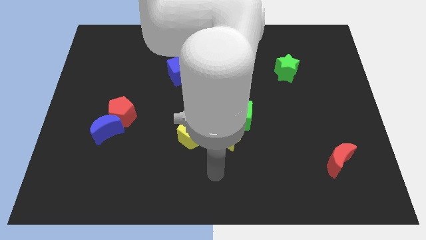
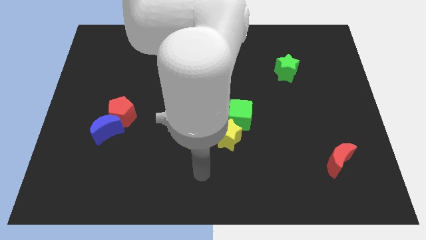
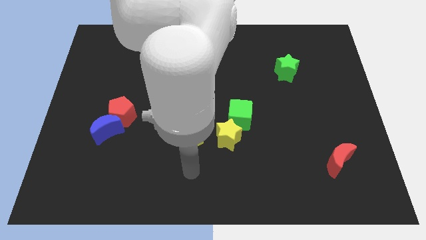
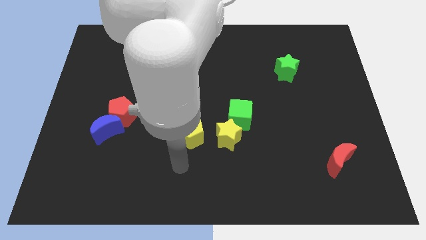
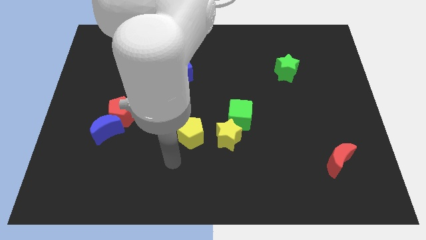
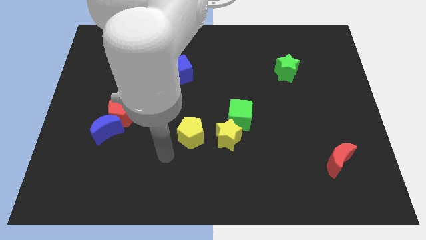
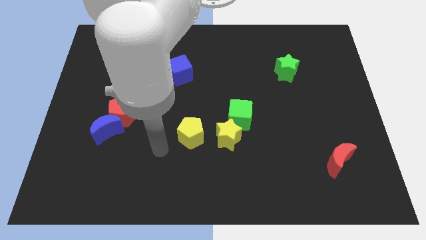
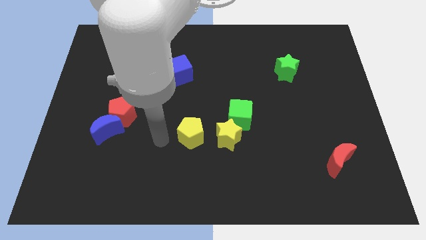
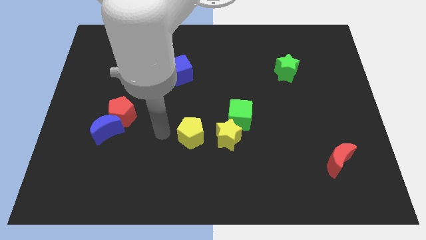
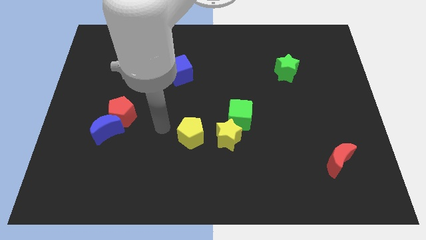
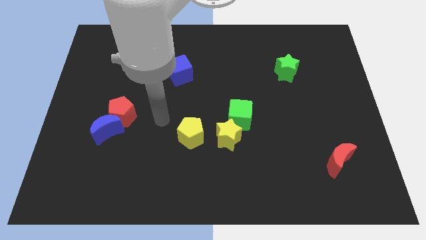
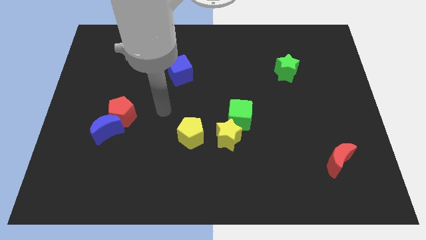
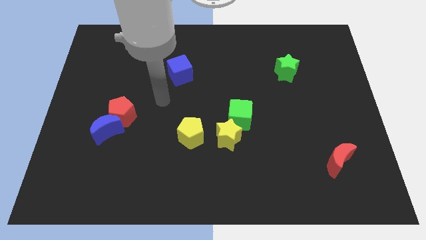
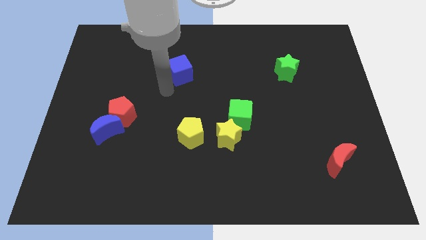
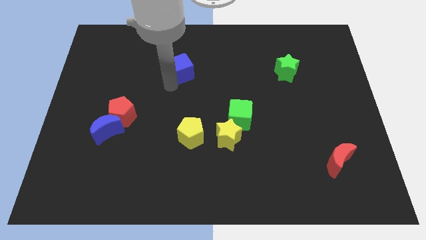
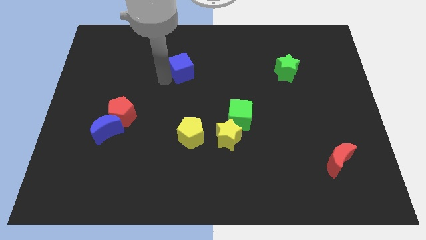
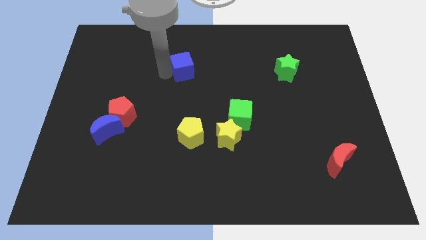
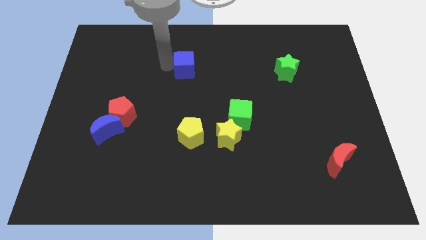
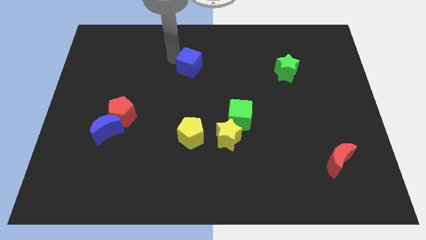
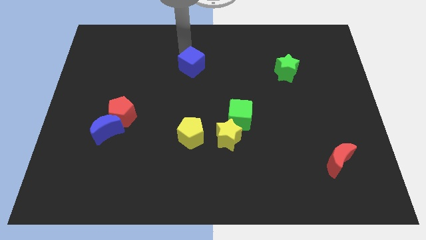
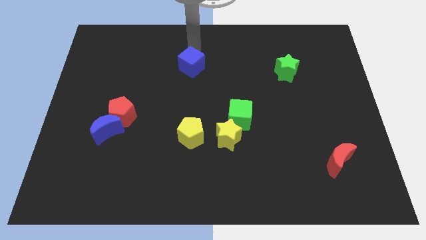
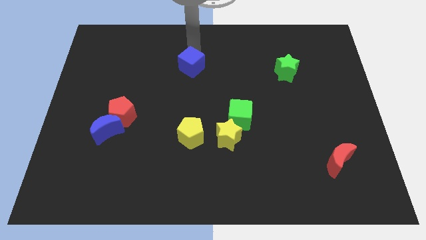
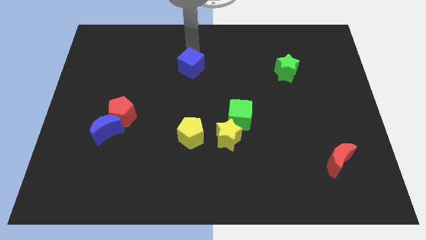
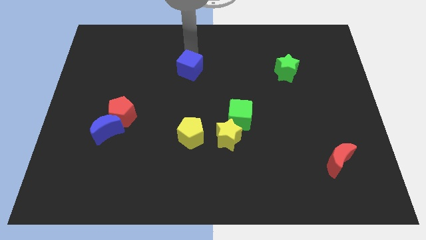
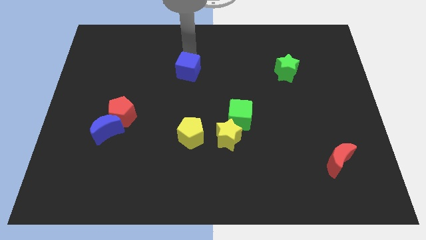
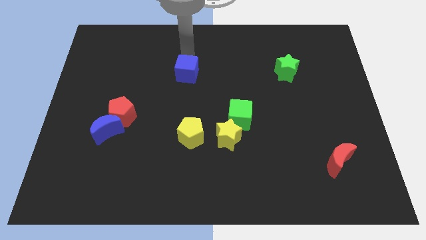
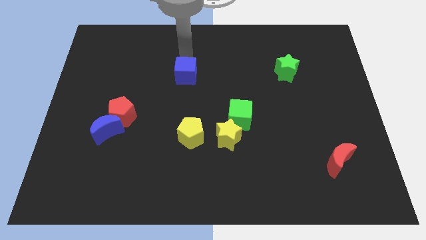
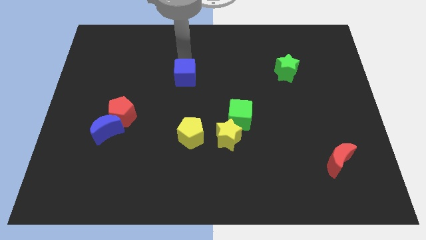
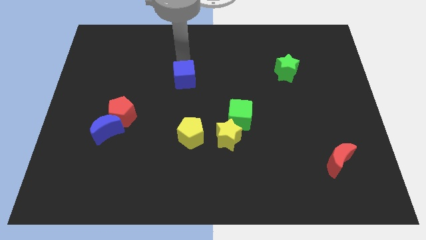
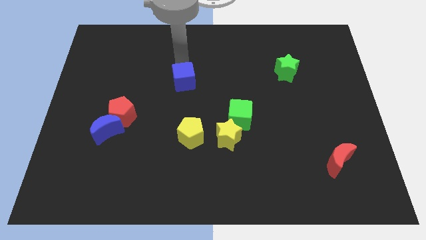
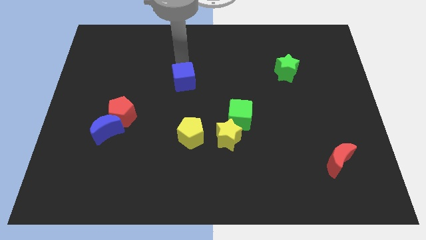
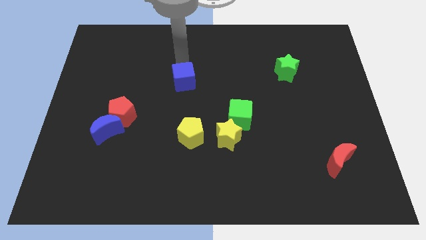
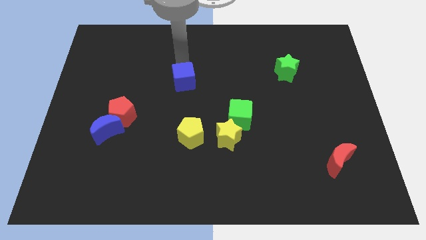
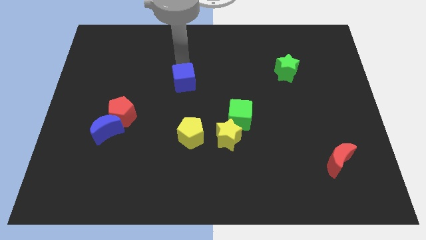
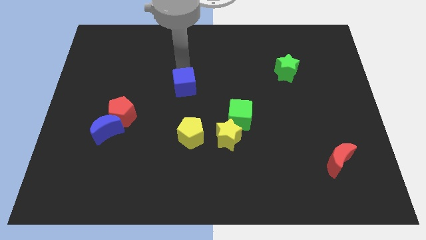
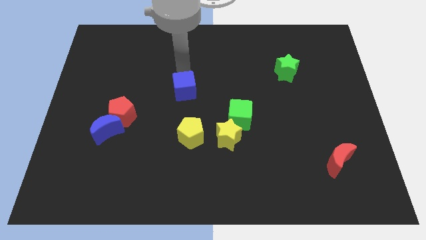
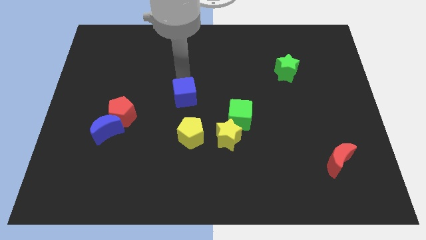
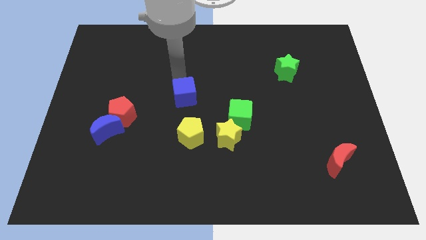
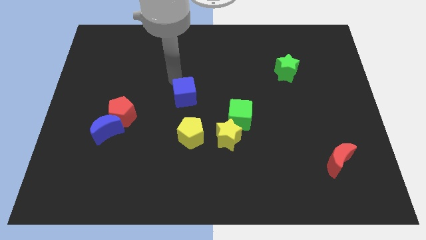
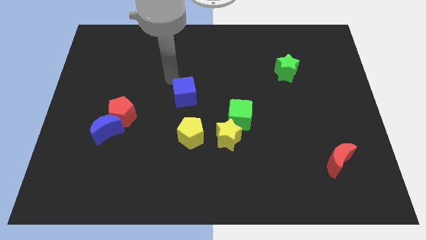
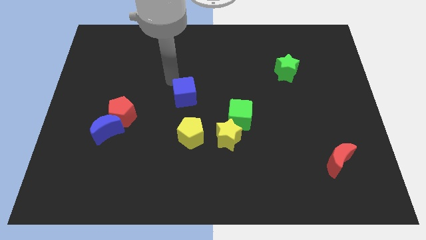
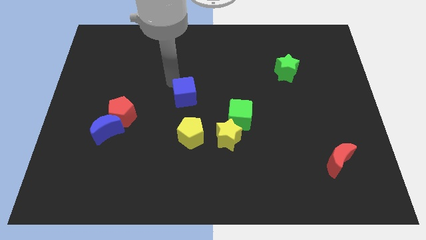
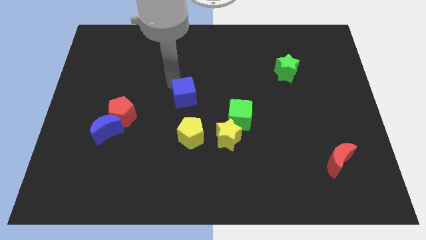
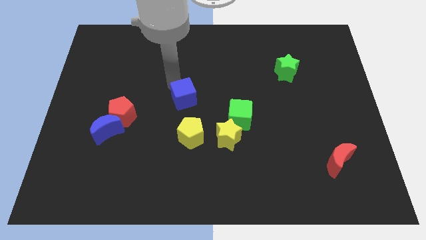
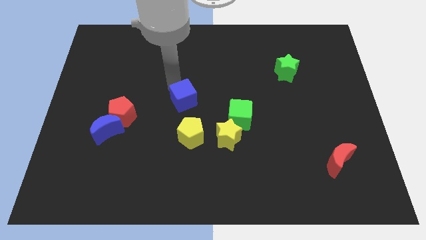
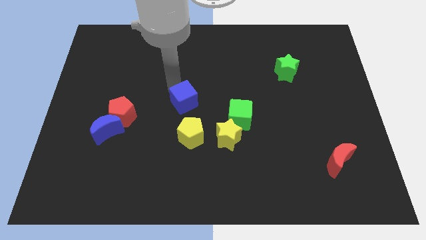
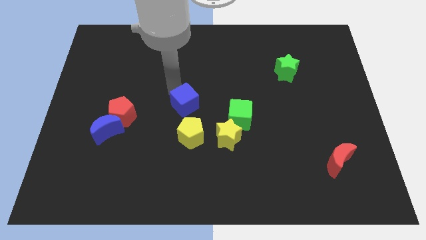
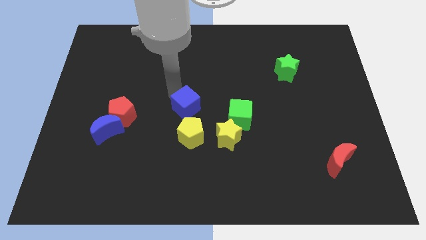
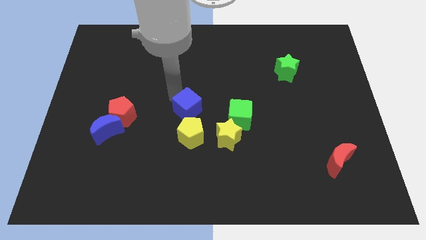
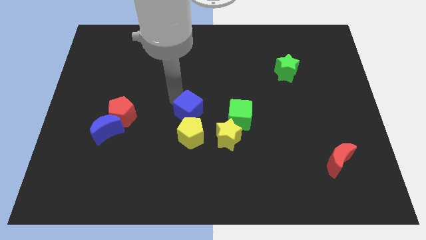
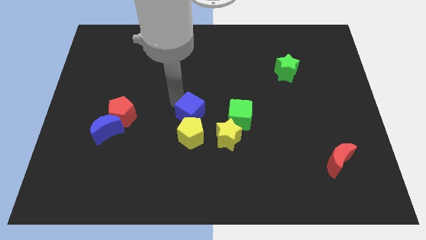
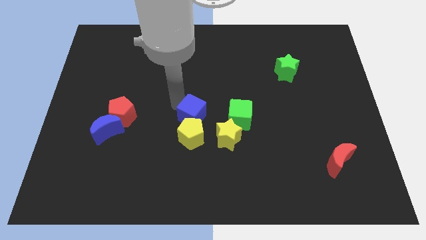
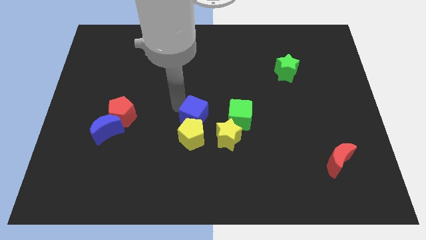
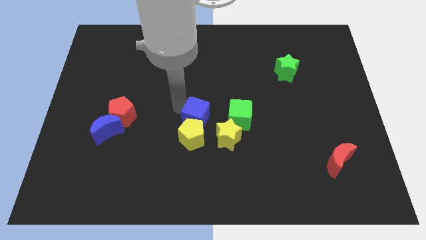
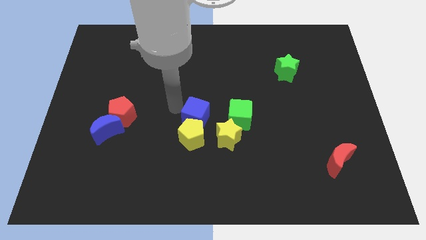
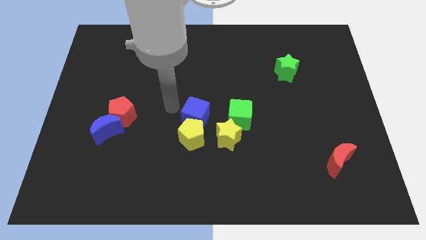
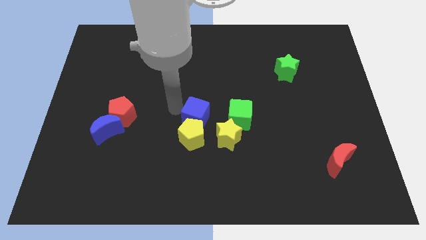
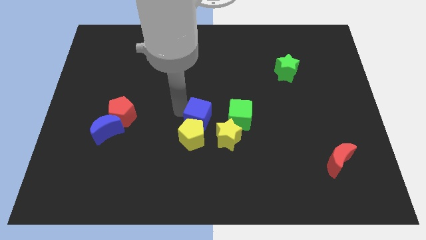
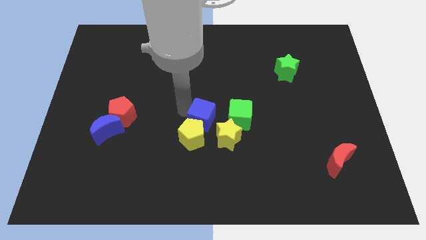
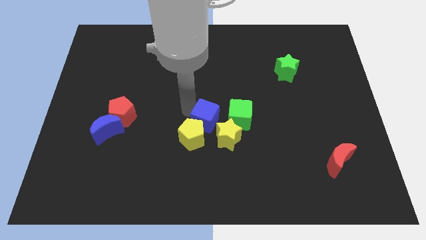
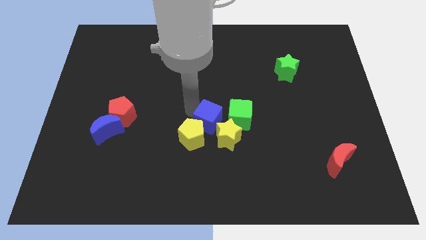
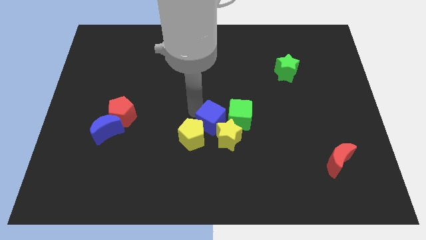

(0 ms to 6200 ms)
move the blue cube towards the yellow star

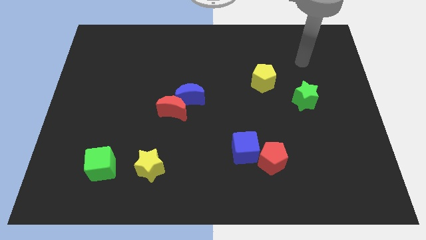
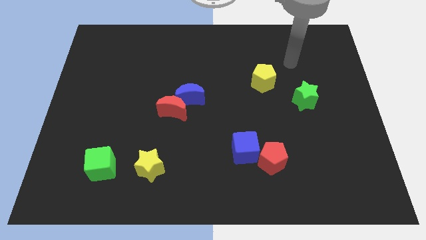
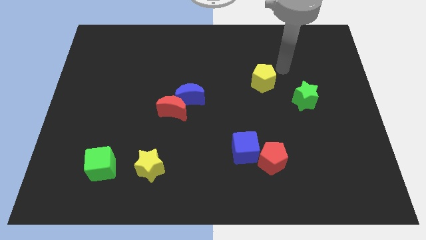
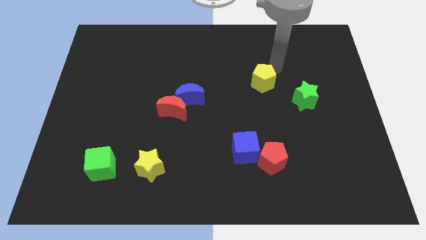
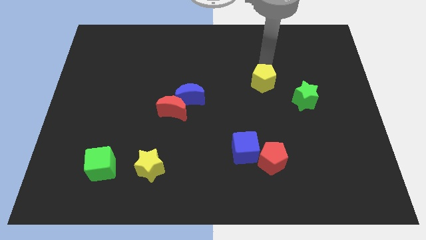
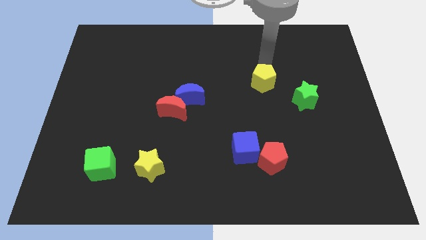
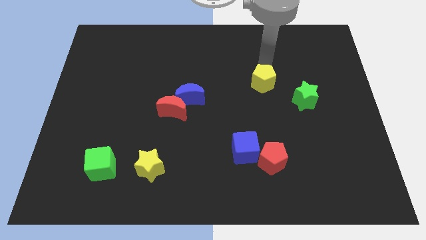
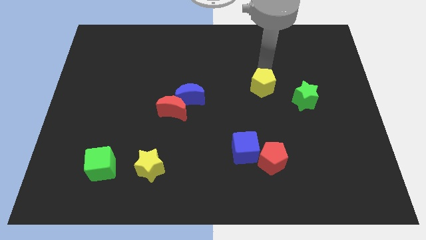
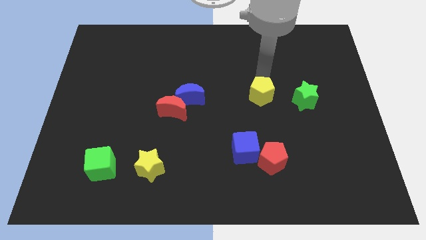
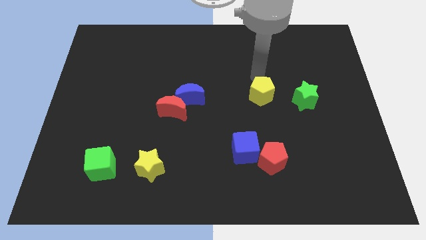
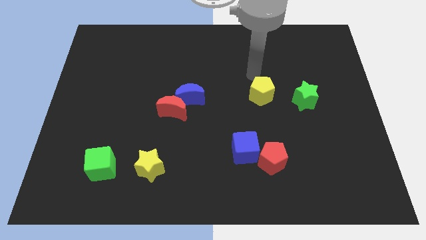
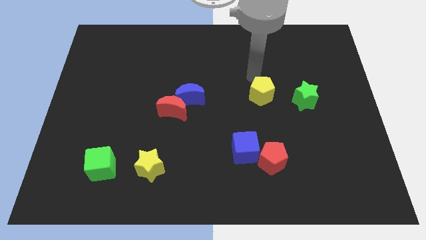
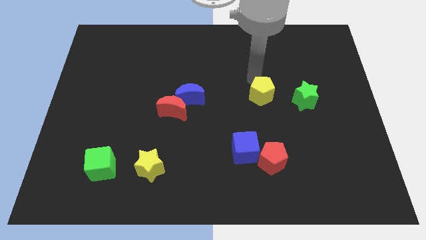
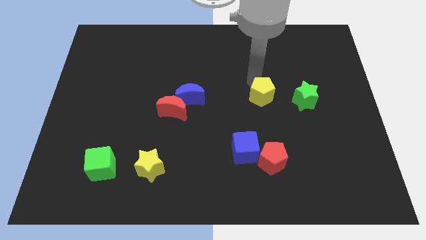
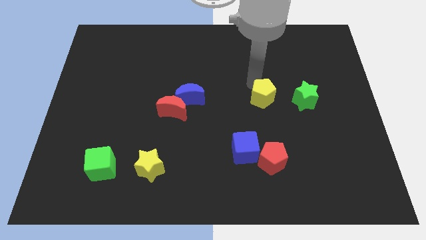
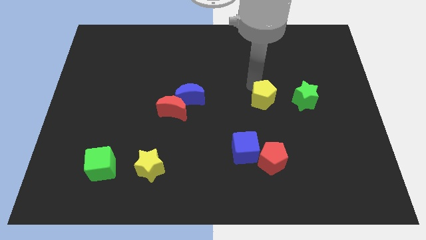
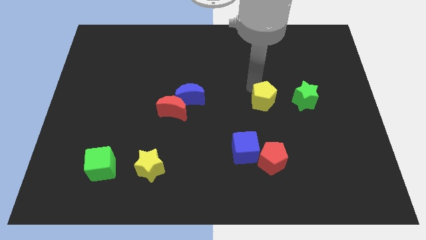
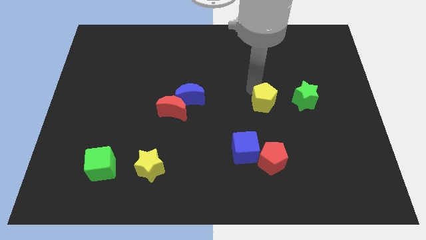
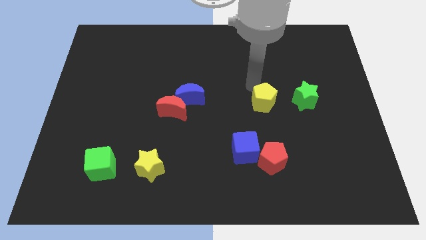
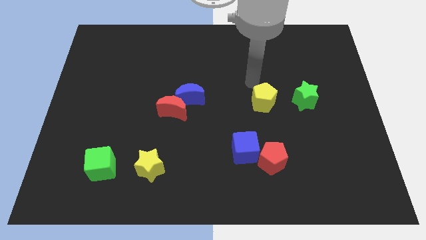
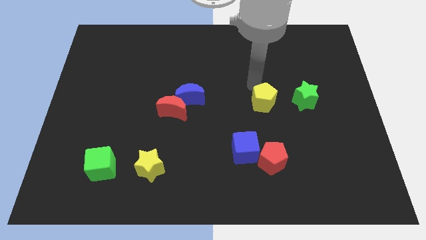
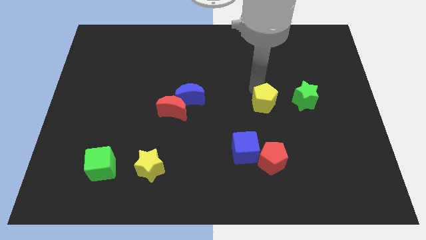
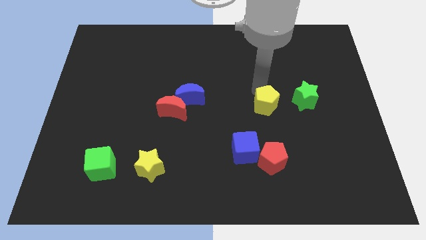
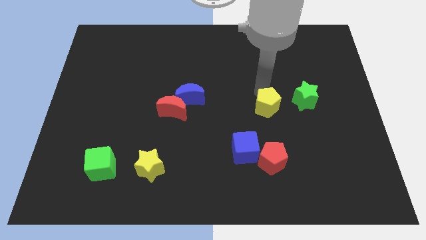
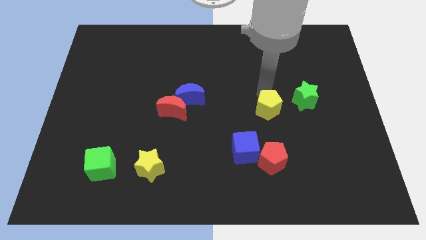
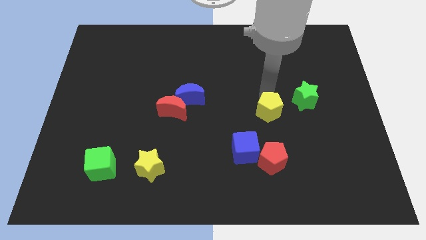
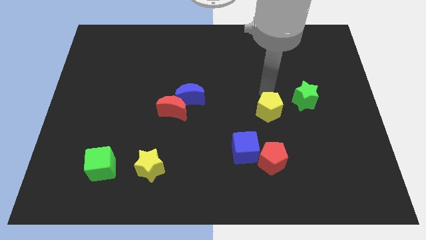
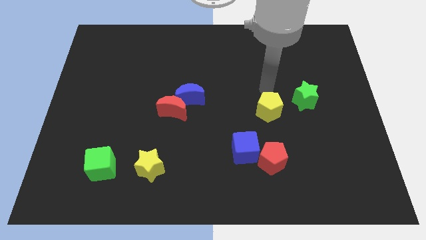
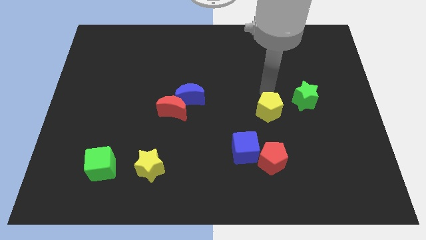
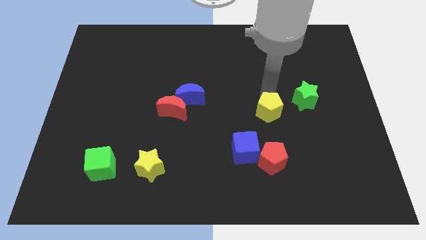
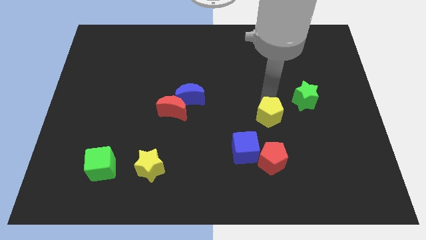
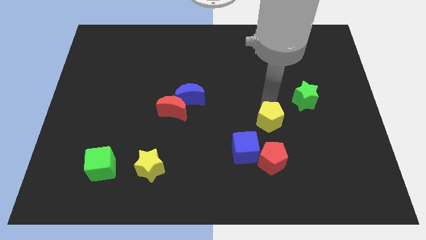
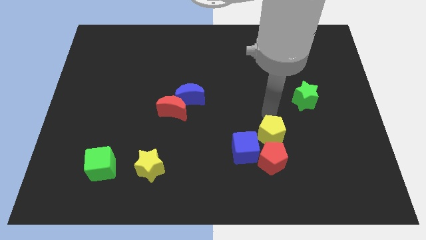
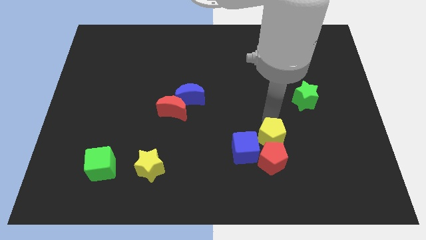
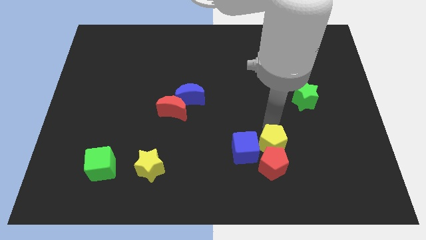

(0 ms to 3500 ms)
push the yellow pentagon towards the red pentagon
